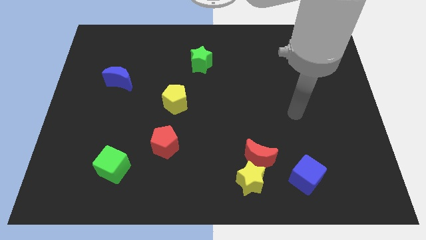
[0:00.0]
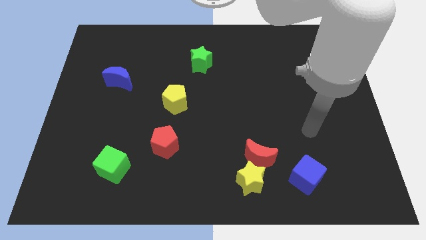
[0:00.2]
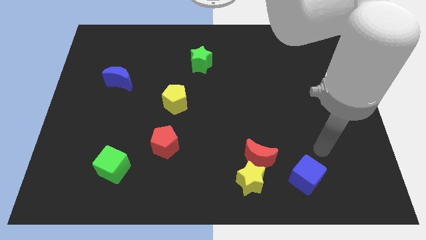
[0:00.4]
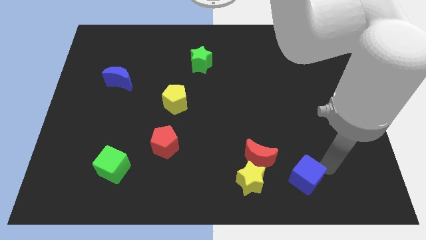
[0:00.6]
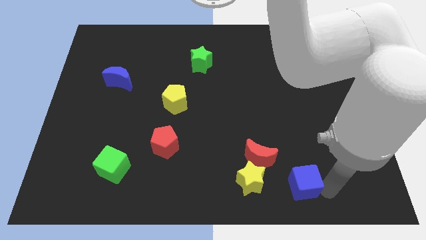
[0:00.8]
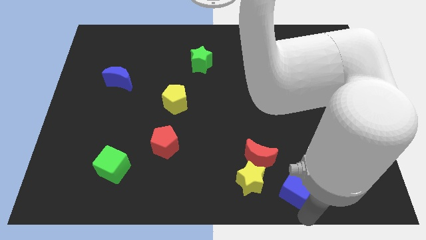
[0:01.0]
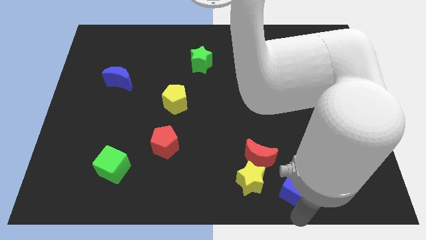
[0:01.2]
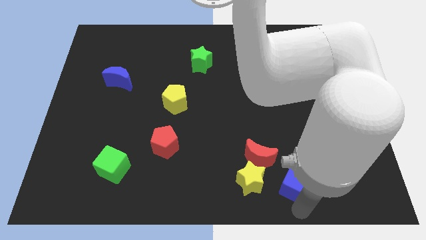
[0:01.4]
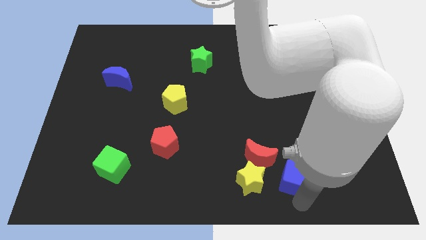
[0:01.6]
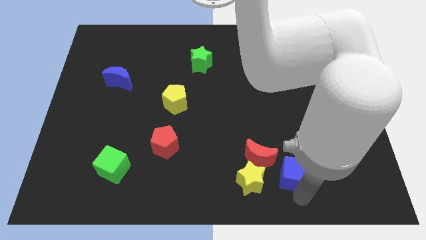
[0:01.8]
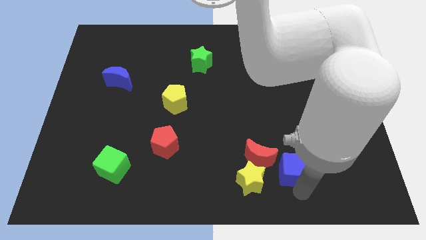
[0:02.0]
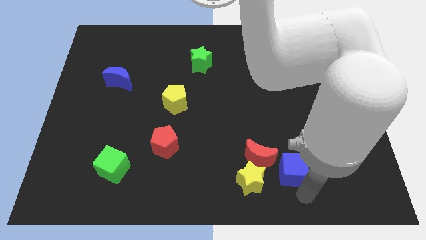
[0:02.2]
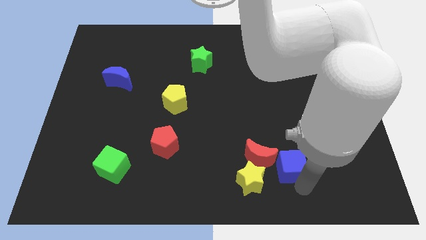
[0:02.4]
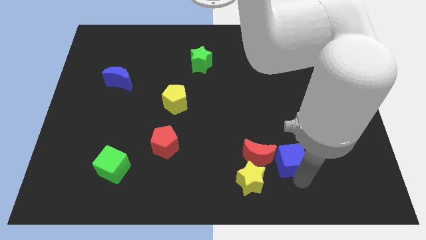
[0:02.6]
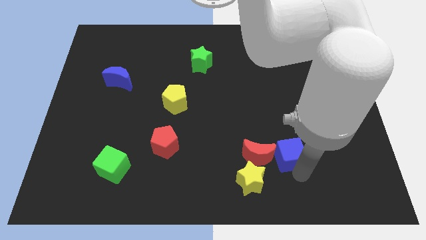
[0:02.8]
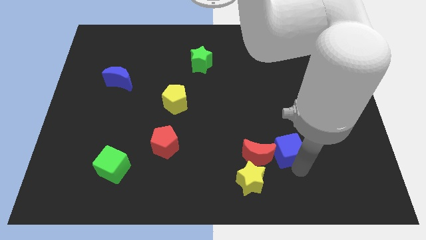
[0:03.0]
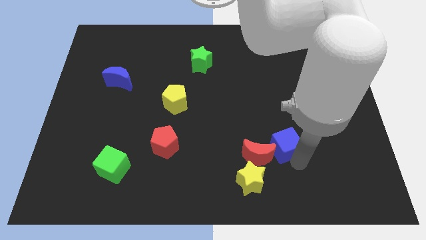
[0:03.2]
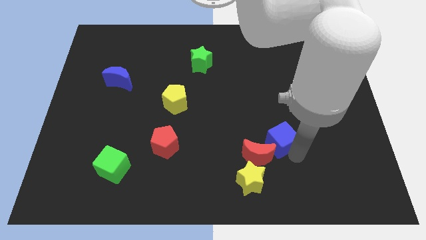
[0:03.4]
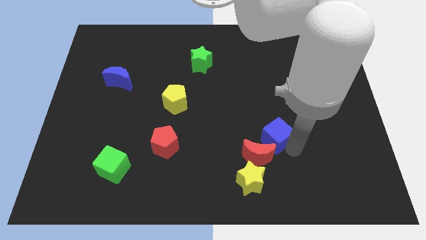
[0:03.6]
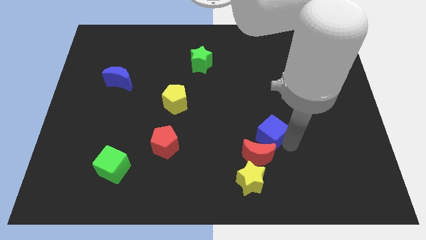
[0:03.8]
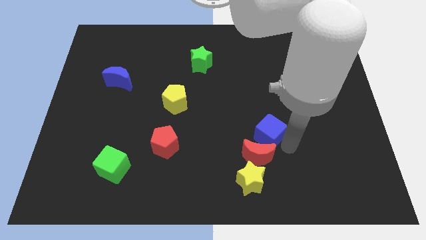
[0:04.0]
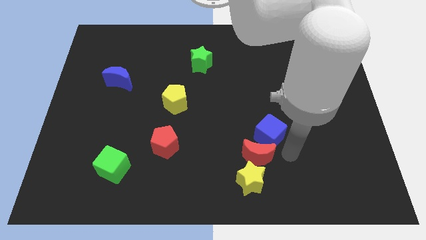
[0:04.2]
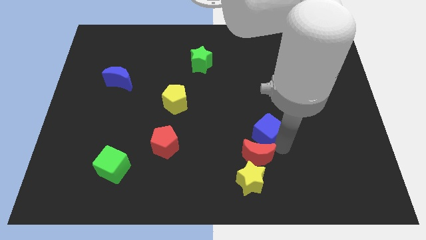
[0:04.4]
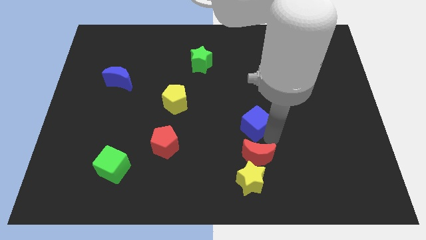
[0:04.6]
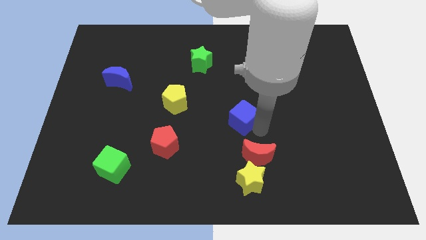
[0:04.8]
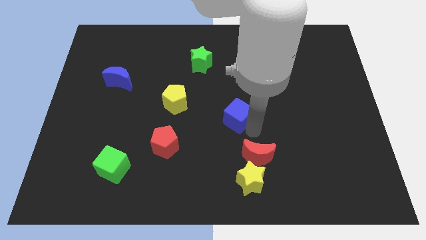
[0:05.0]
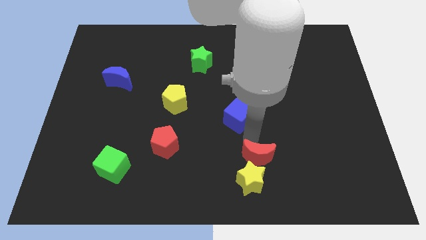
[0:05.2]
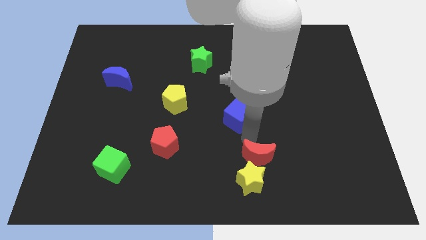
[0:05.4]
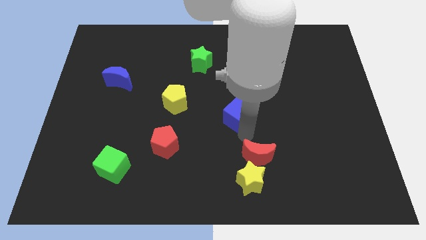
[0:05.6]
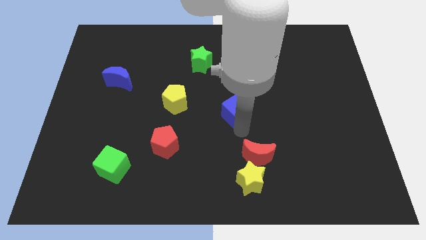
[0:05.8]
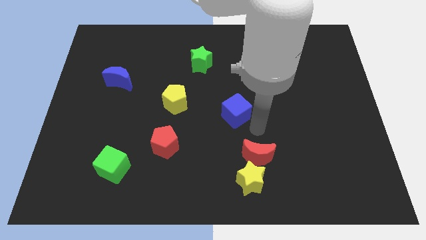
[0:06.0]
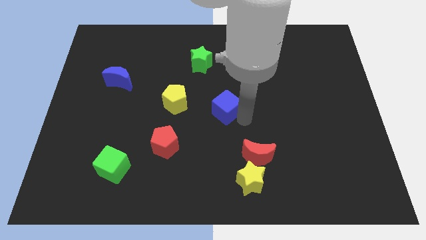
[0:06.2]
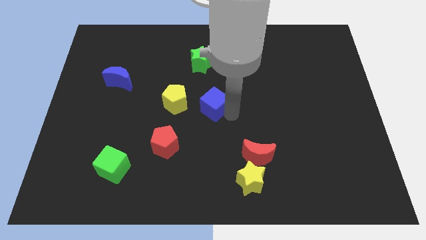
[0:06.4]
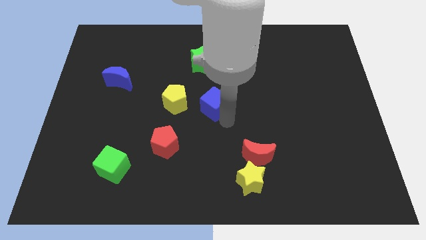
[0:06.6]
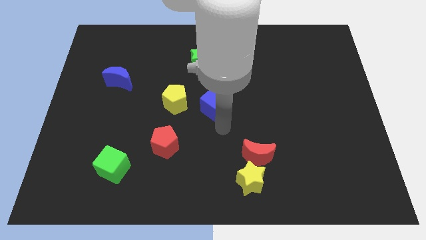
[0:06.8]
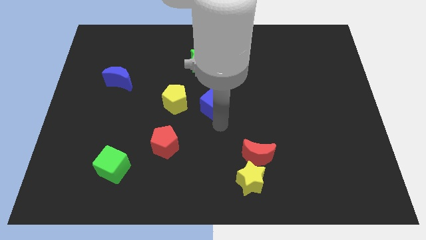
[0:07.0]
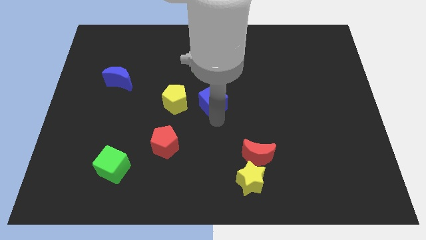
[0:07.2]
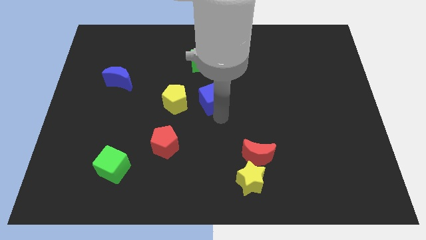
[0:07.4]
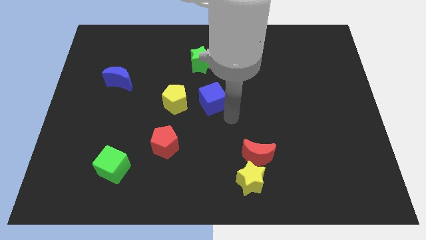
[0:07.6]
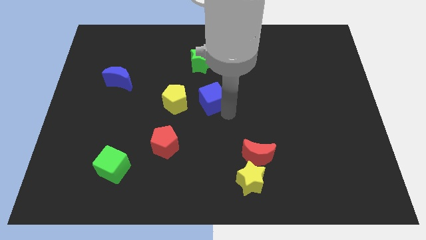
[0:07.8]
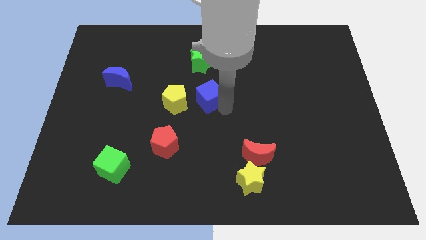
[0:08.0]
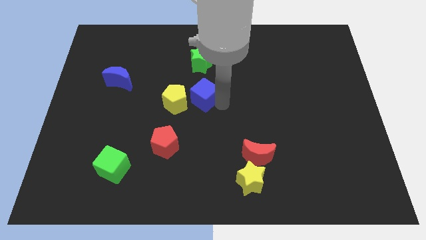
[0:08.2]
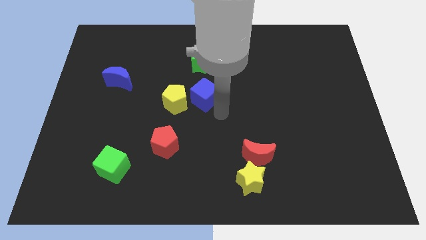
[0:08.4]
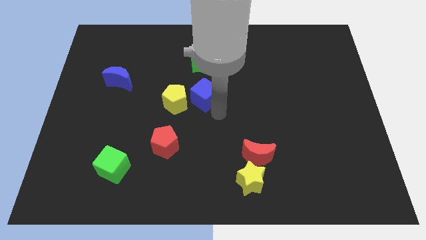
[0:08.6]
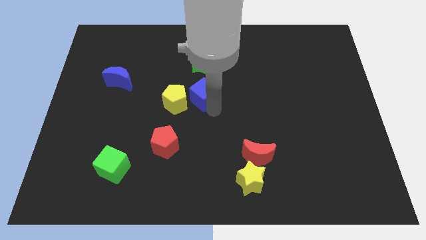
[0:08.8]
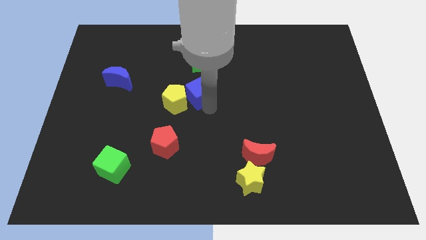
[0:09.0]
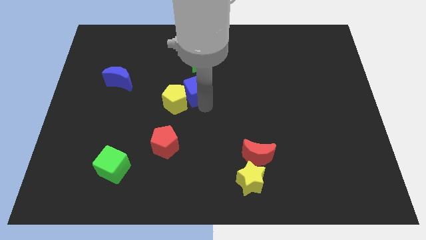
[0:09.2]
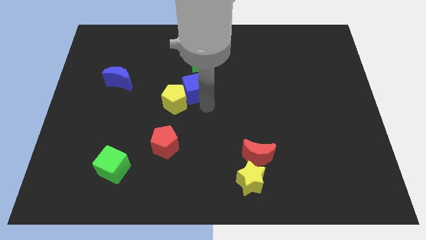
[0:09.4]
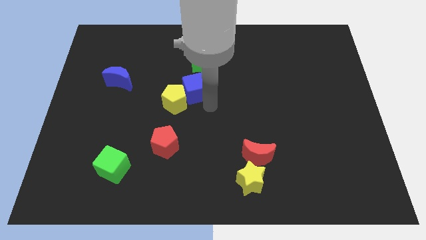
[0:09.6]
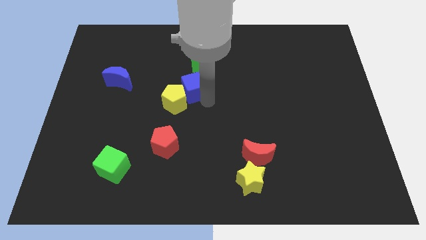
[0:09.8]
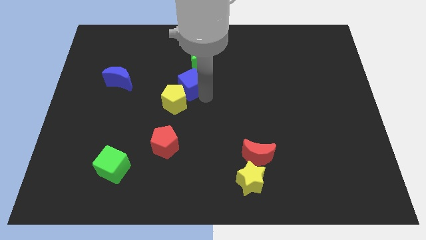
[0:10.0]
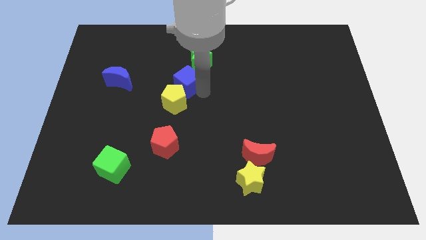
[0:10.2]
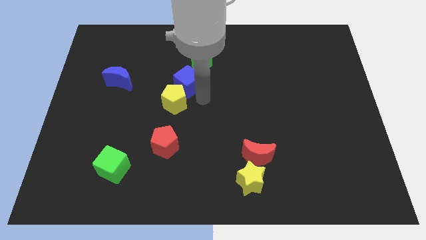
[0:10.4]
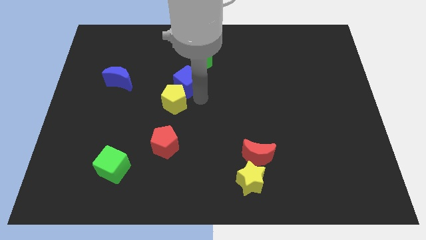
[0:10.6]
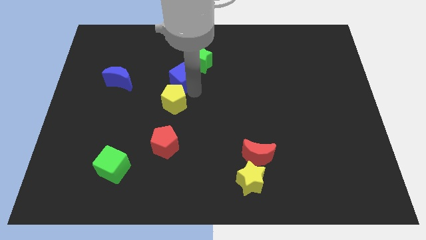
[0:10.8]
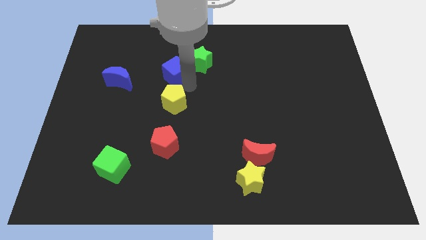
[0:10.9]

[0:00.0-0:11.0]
push the blue cube to the left side of the green star

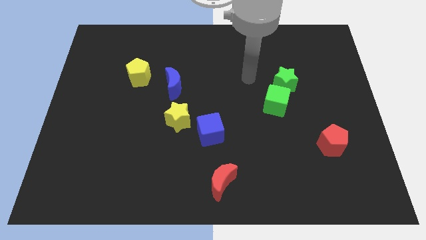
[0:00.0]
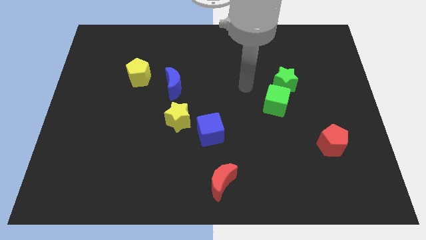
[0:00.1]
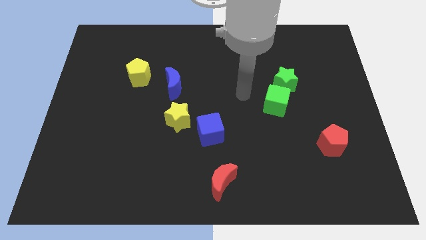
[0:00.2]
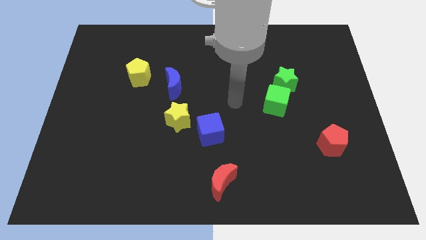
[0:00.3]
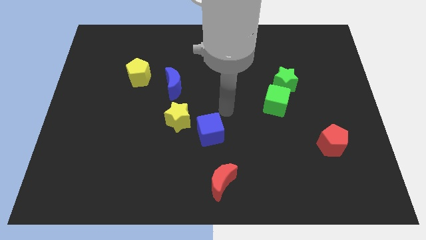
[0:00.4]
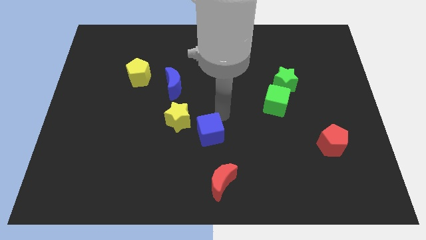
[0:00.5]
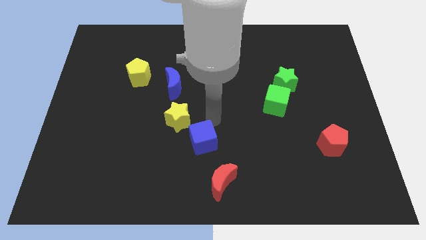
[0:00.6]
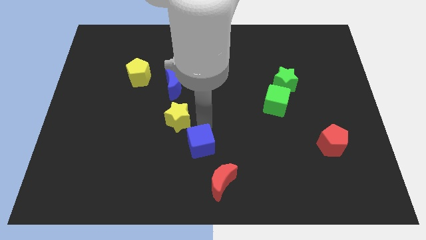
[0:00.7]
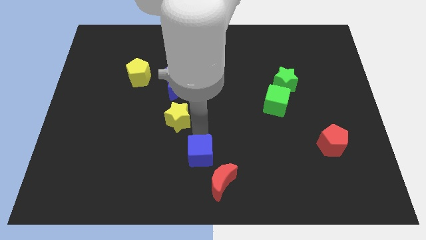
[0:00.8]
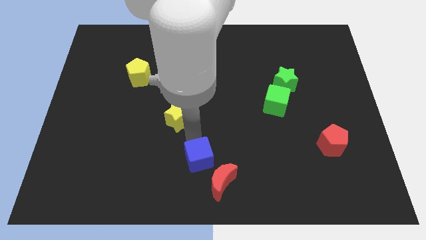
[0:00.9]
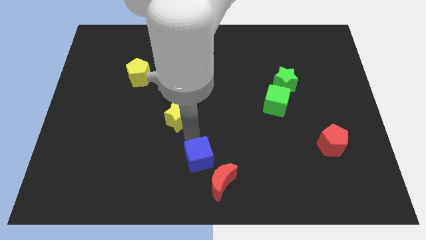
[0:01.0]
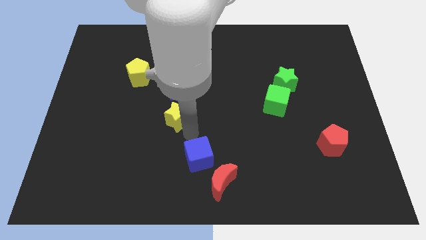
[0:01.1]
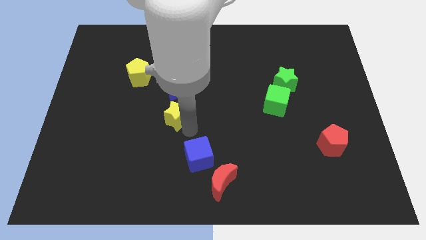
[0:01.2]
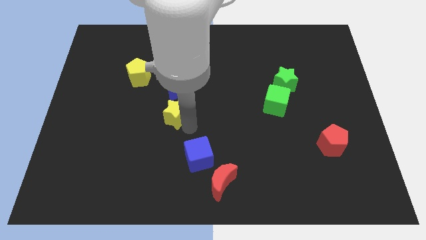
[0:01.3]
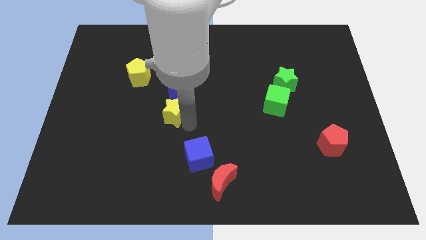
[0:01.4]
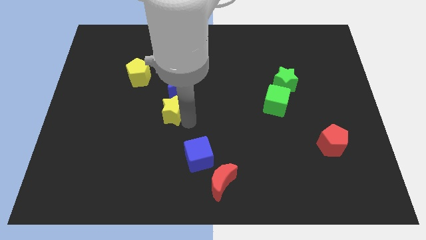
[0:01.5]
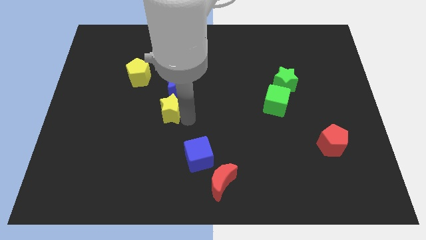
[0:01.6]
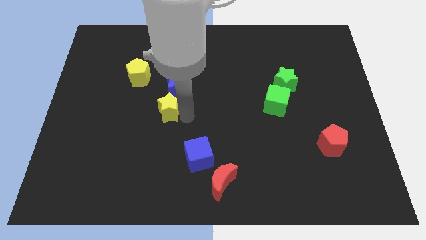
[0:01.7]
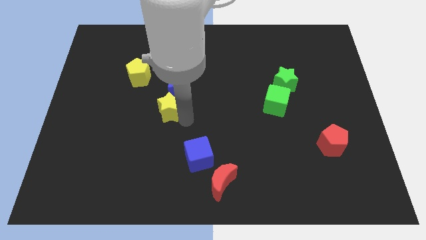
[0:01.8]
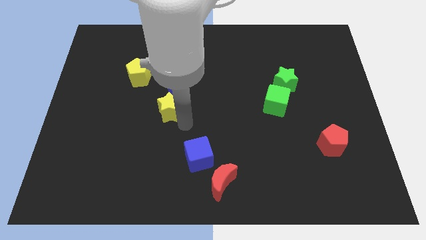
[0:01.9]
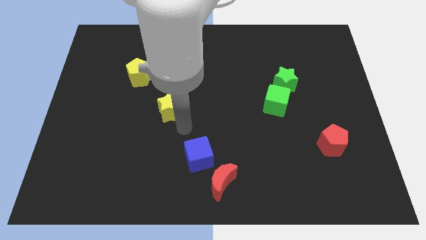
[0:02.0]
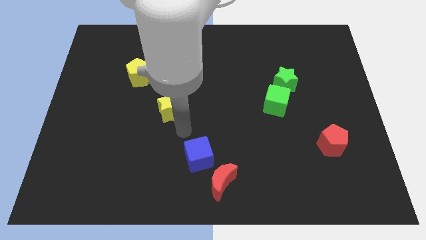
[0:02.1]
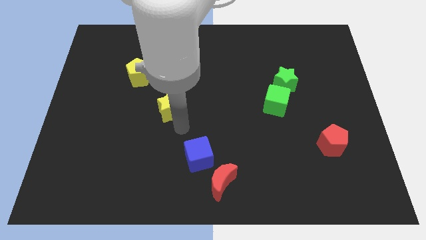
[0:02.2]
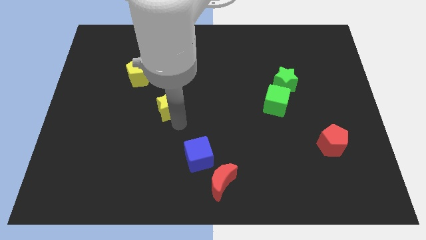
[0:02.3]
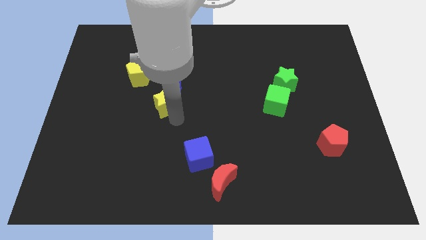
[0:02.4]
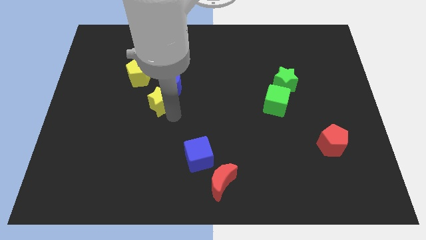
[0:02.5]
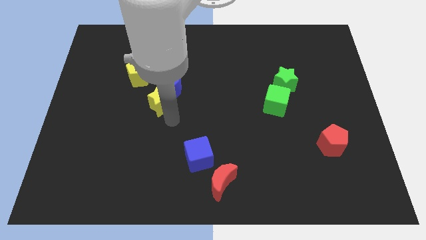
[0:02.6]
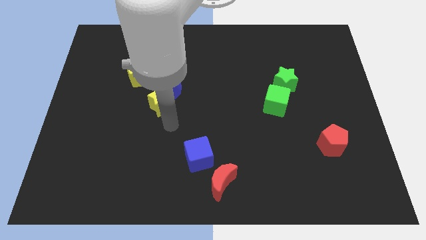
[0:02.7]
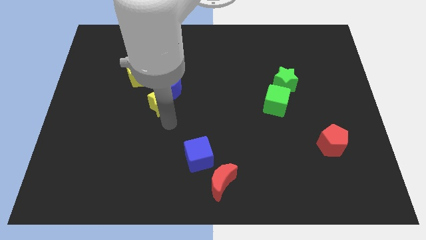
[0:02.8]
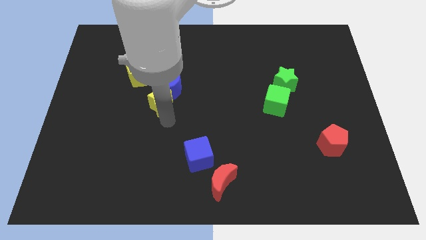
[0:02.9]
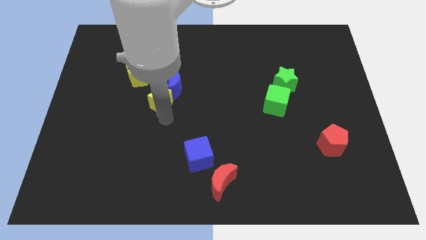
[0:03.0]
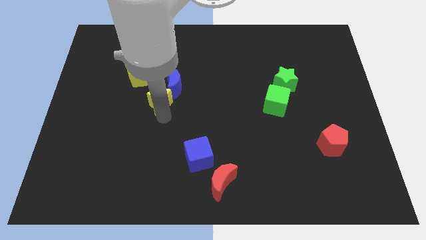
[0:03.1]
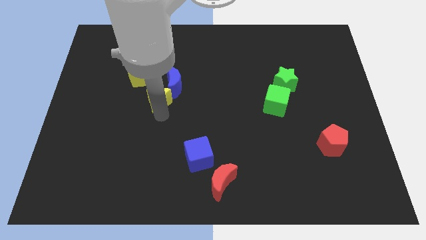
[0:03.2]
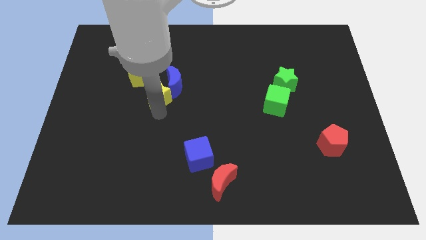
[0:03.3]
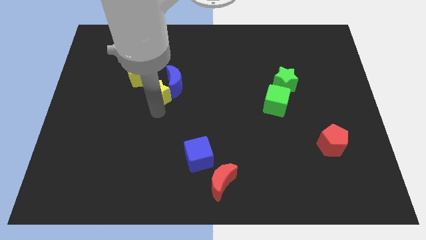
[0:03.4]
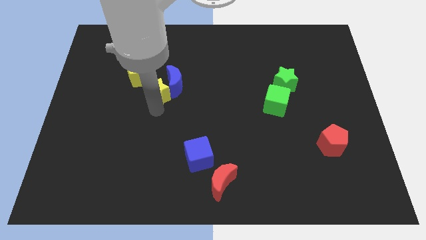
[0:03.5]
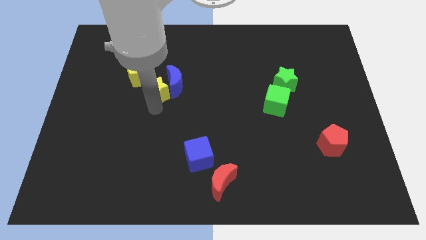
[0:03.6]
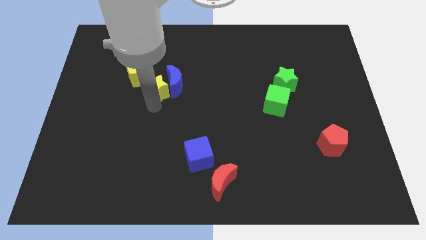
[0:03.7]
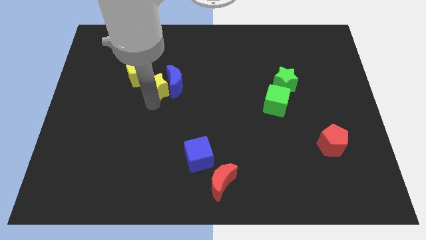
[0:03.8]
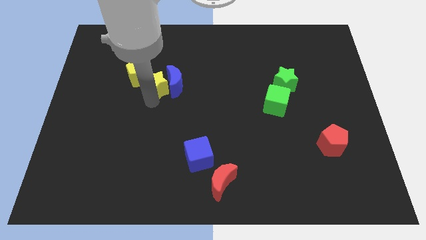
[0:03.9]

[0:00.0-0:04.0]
slide the yellow star to the top left of the blue moon
